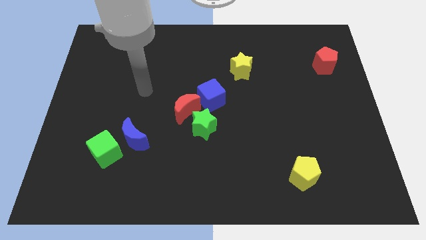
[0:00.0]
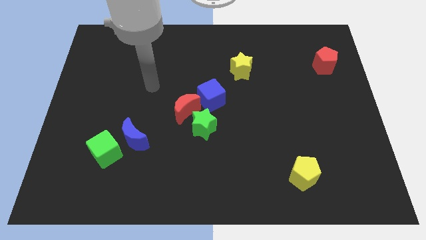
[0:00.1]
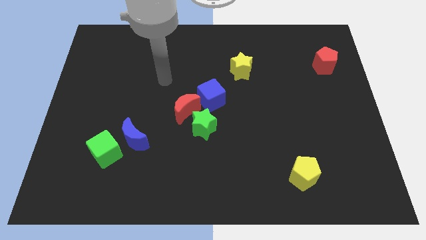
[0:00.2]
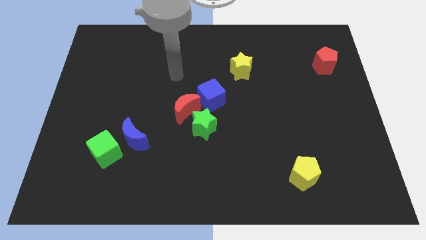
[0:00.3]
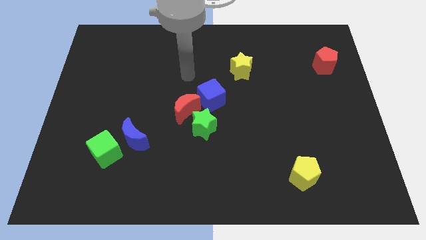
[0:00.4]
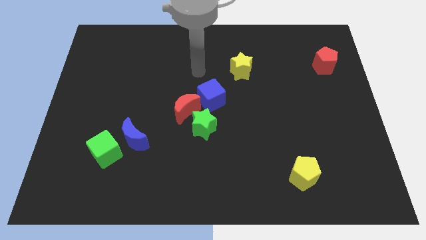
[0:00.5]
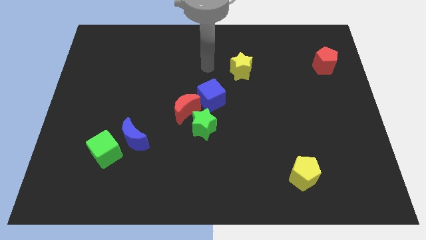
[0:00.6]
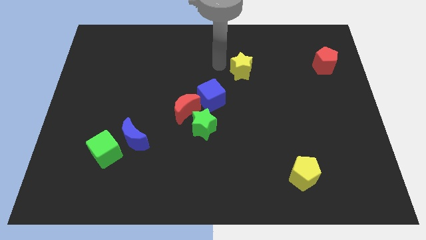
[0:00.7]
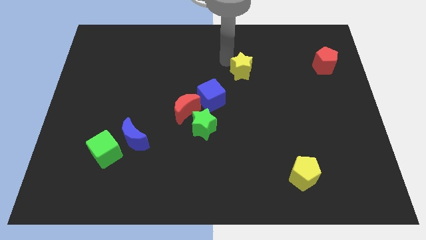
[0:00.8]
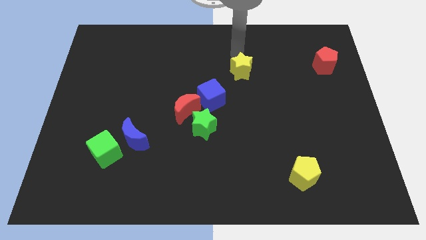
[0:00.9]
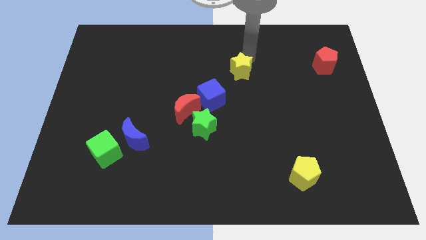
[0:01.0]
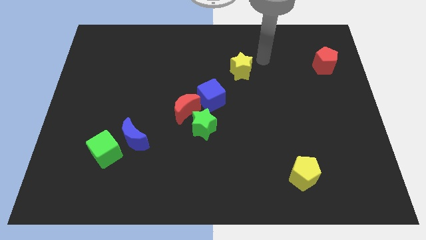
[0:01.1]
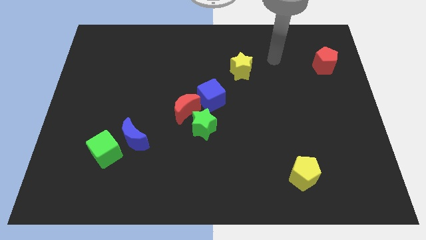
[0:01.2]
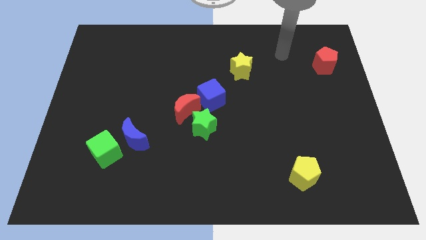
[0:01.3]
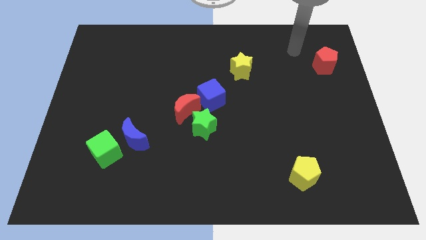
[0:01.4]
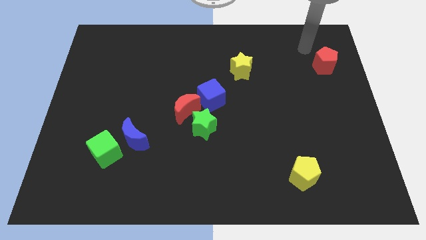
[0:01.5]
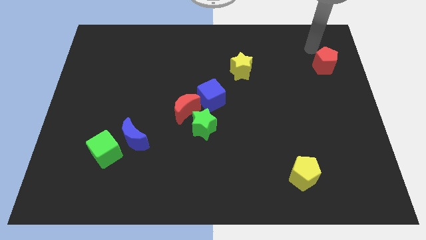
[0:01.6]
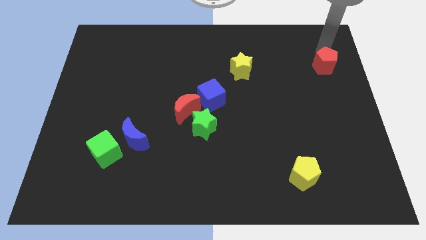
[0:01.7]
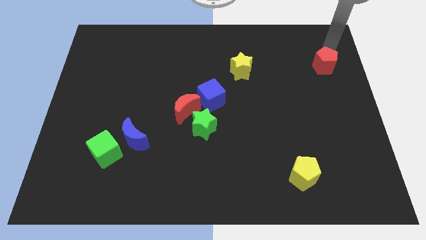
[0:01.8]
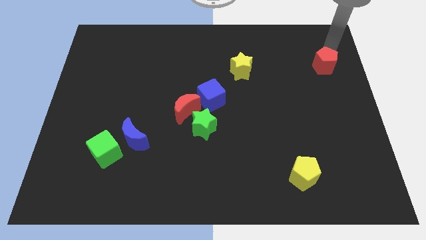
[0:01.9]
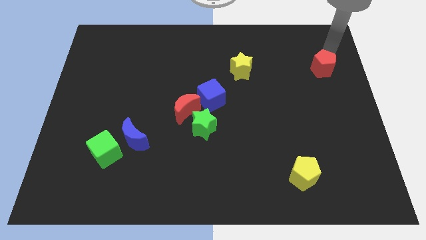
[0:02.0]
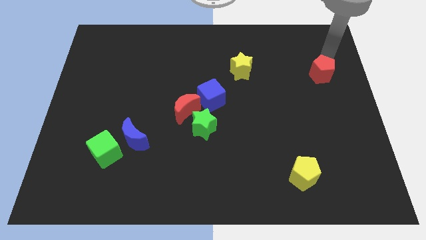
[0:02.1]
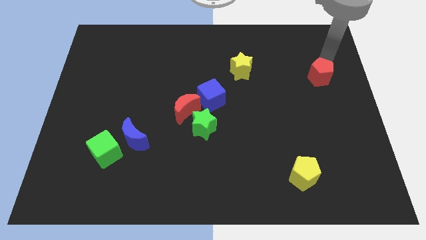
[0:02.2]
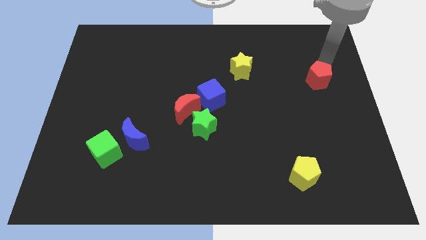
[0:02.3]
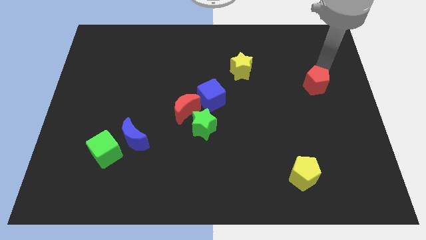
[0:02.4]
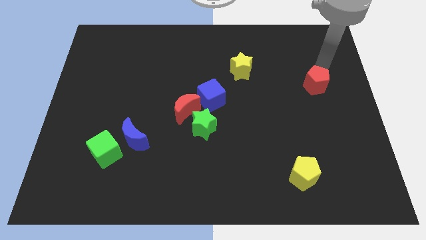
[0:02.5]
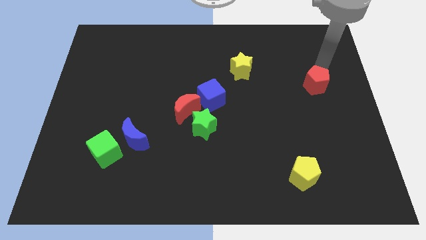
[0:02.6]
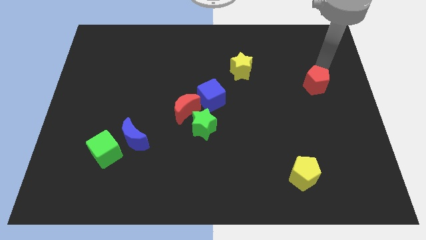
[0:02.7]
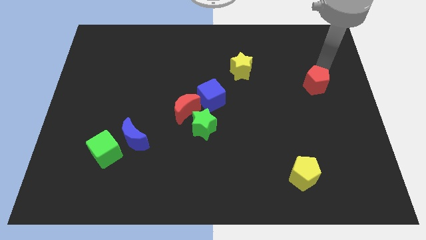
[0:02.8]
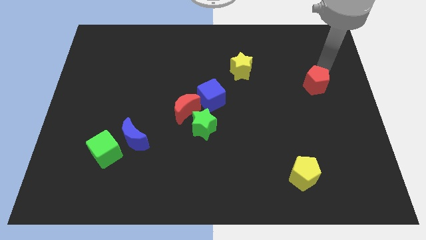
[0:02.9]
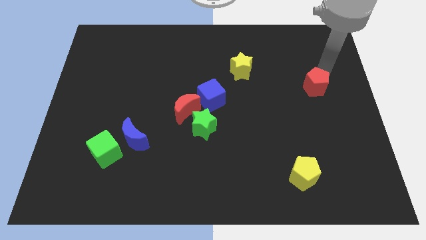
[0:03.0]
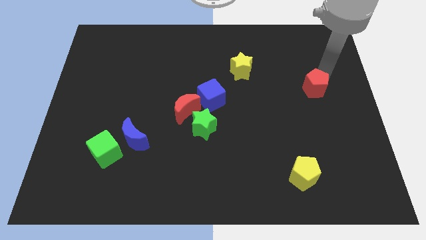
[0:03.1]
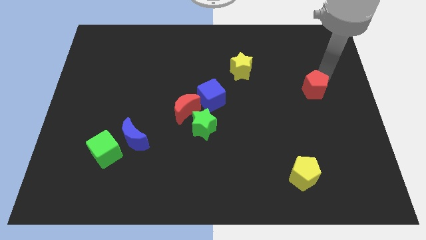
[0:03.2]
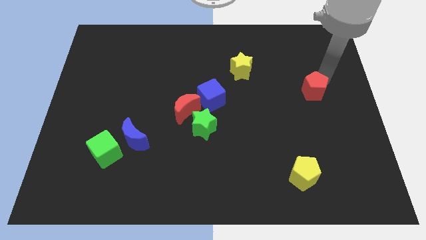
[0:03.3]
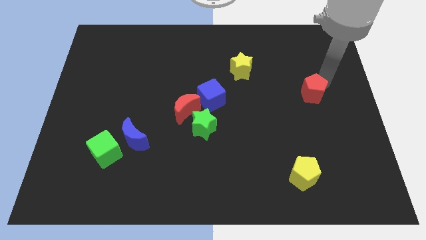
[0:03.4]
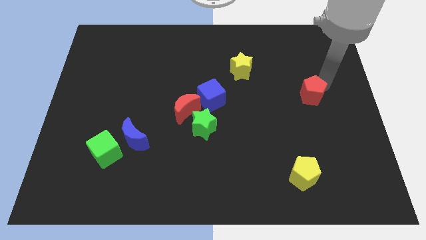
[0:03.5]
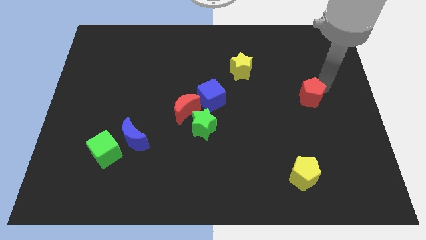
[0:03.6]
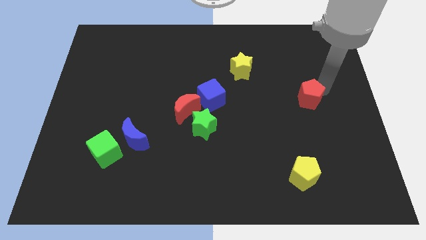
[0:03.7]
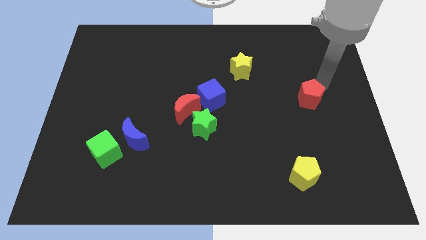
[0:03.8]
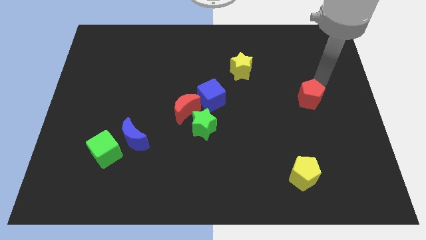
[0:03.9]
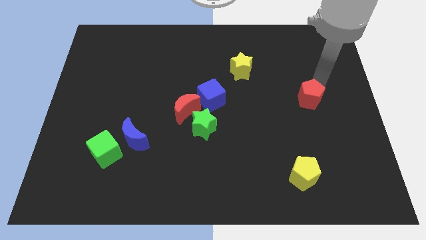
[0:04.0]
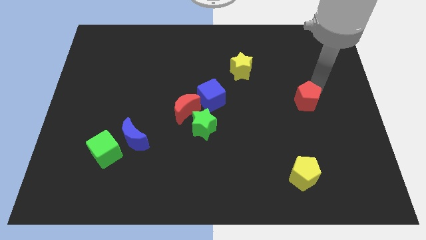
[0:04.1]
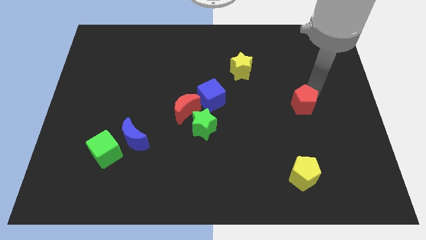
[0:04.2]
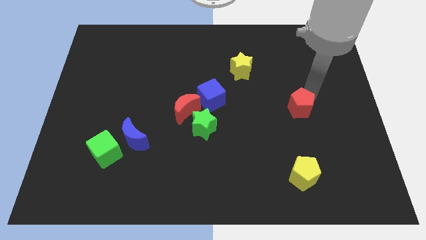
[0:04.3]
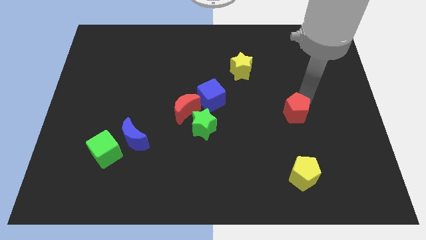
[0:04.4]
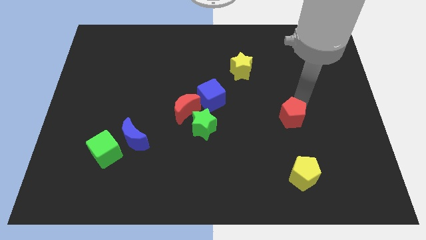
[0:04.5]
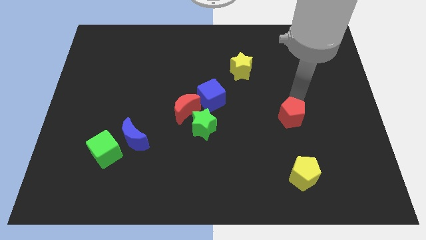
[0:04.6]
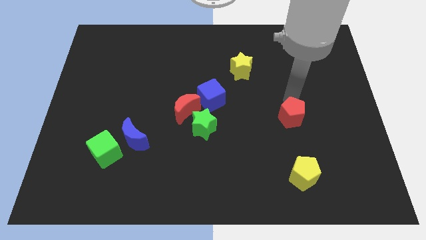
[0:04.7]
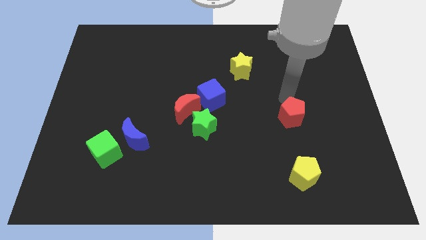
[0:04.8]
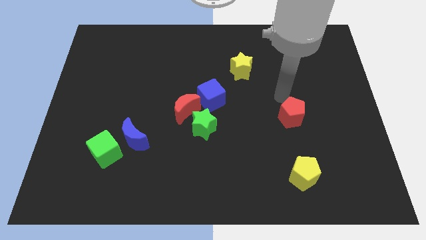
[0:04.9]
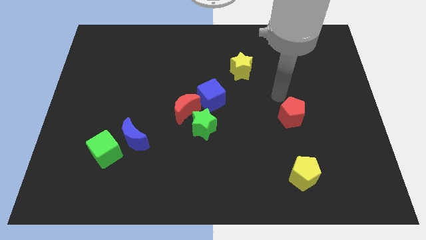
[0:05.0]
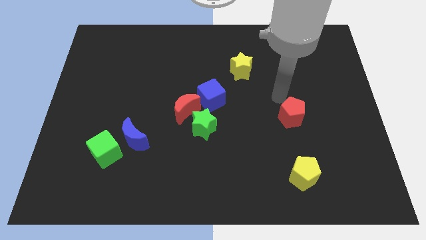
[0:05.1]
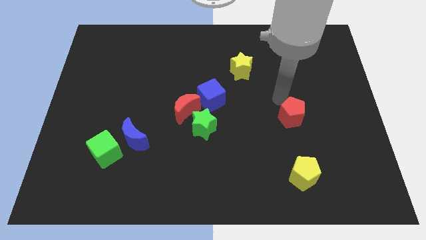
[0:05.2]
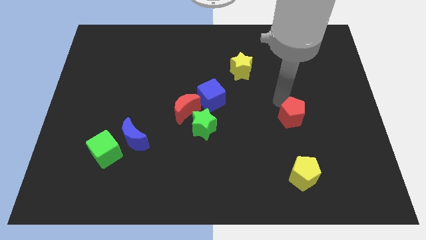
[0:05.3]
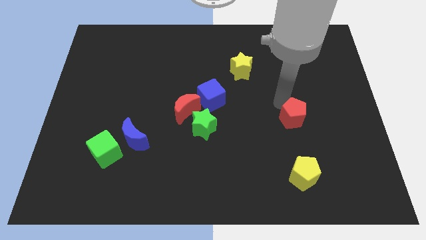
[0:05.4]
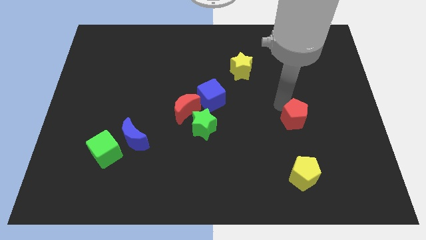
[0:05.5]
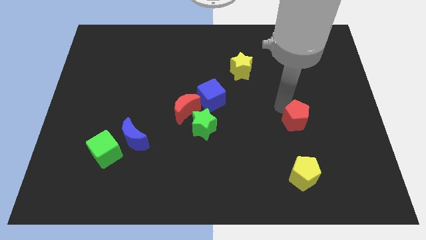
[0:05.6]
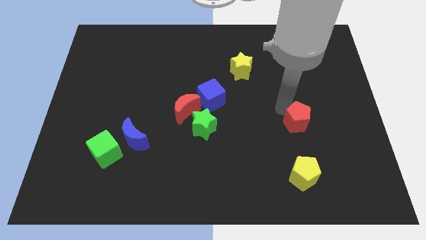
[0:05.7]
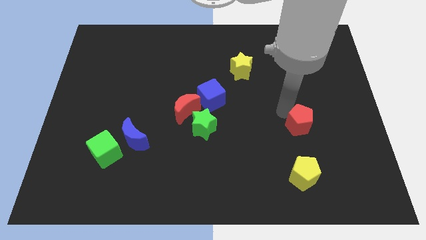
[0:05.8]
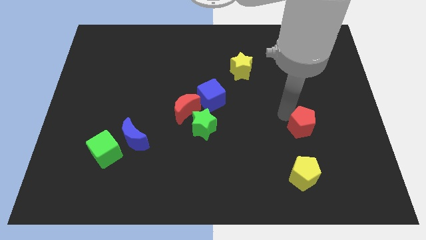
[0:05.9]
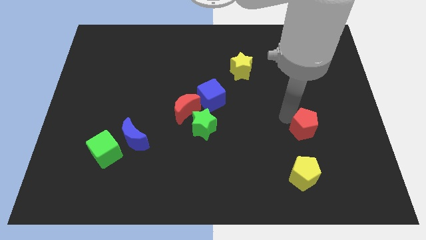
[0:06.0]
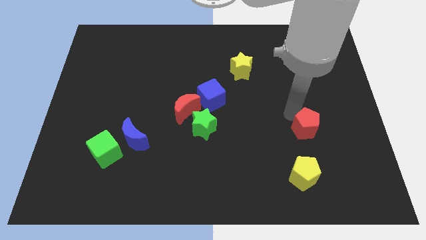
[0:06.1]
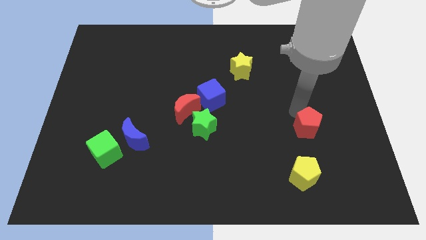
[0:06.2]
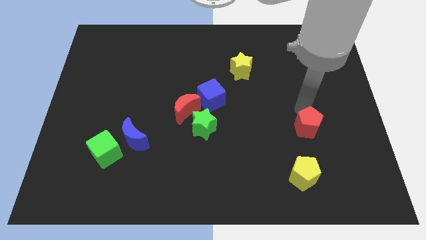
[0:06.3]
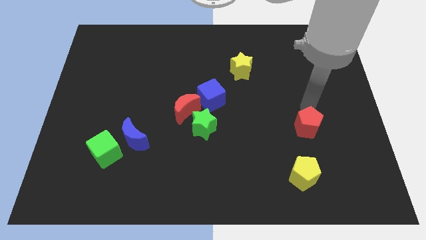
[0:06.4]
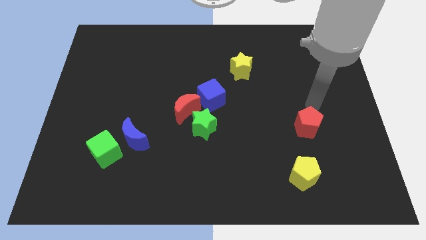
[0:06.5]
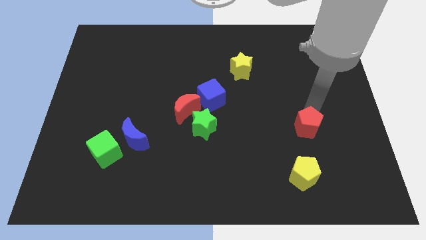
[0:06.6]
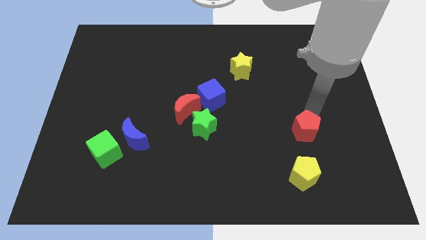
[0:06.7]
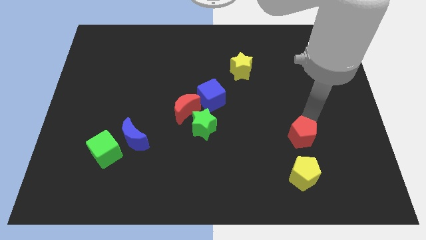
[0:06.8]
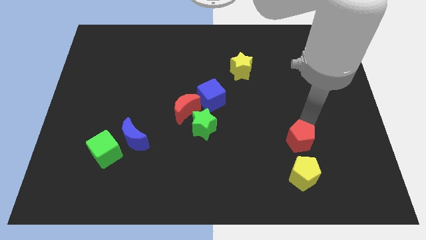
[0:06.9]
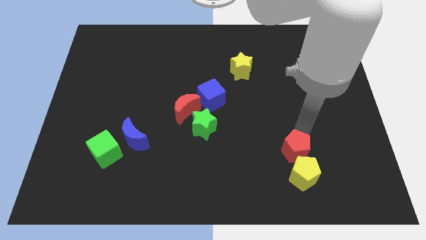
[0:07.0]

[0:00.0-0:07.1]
put the red pentagon to the yellow pentagon
